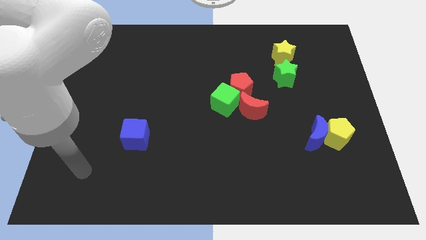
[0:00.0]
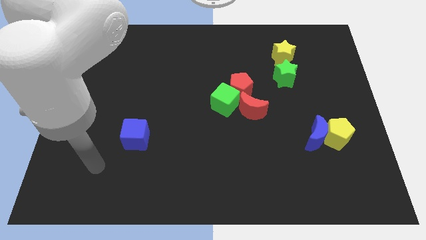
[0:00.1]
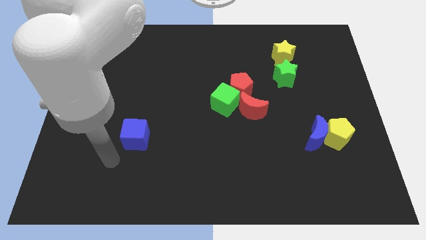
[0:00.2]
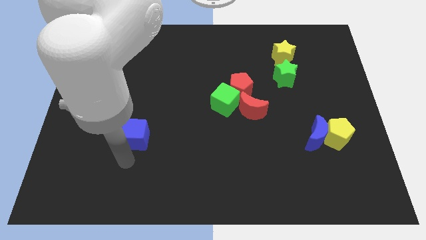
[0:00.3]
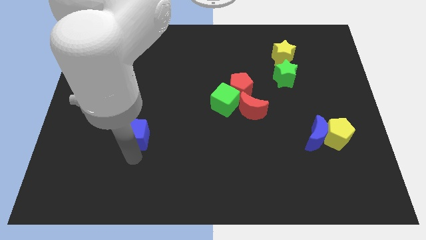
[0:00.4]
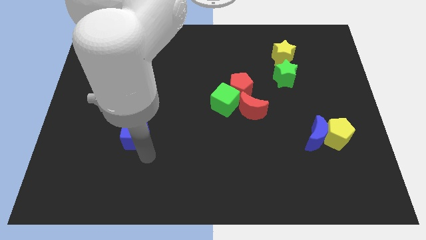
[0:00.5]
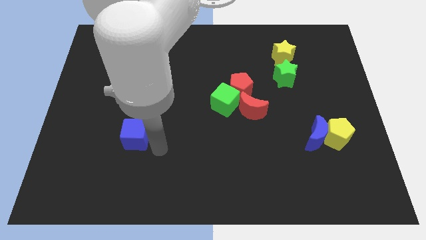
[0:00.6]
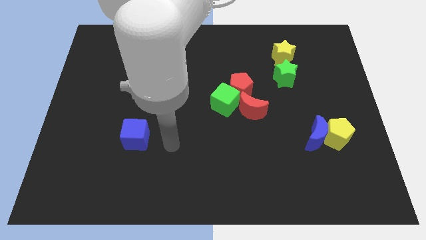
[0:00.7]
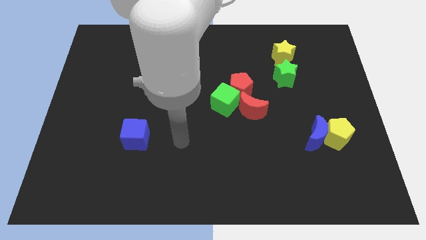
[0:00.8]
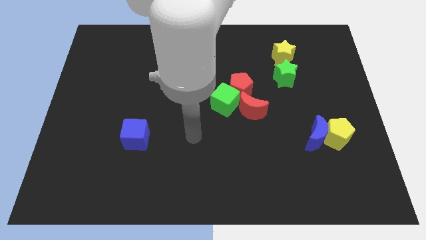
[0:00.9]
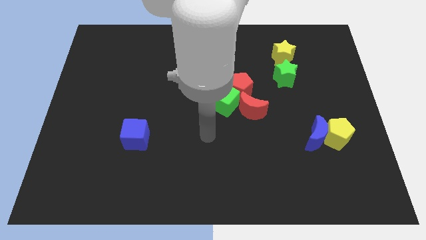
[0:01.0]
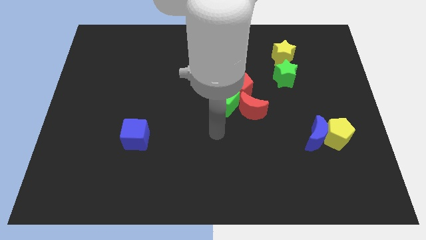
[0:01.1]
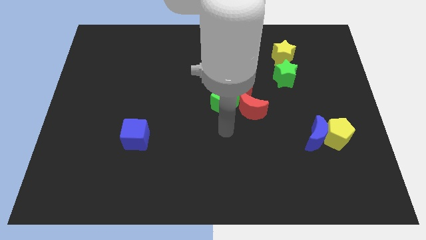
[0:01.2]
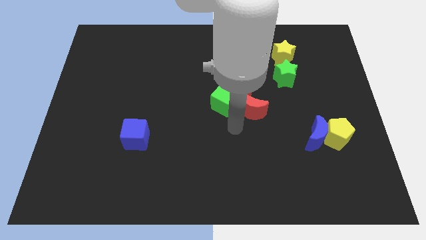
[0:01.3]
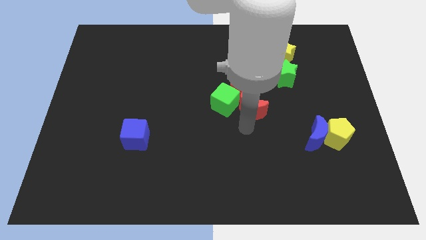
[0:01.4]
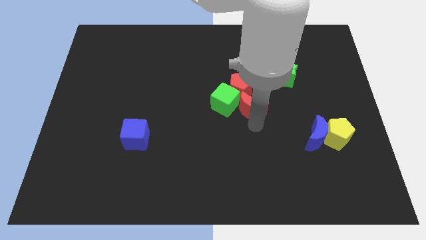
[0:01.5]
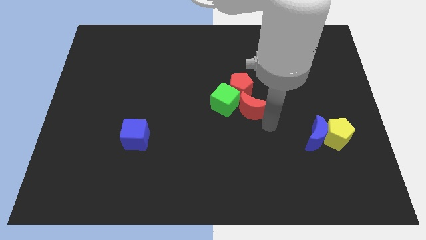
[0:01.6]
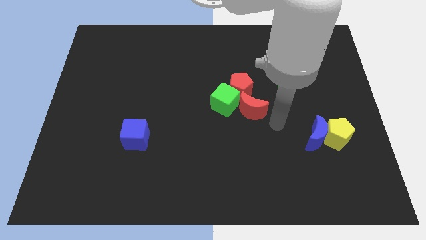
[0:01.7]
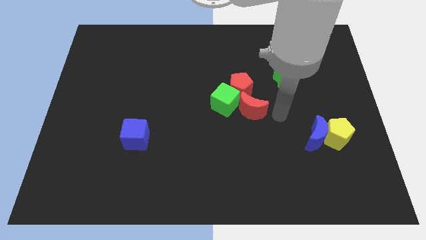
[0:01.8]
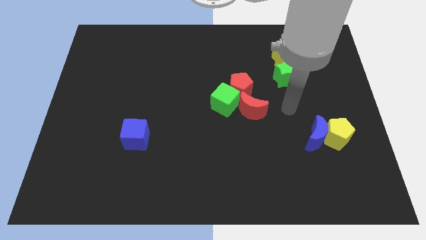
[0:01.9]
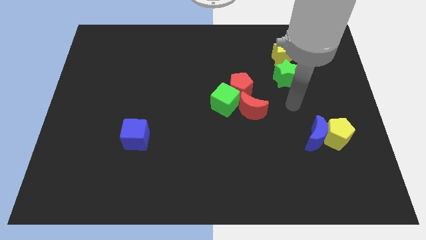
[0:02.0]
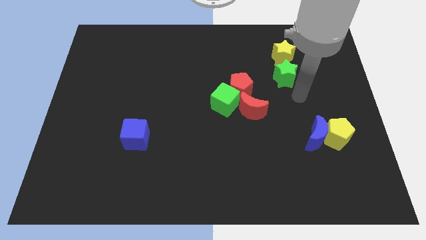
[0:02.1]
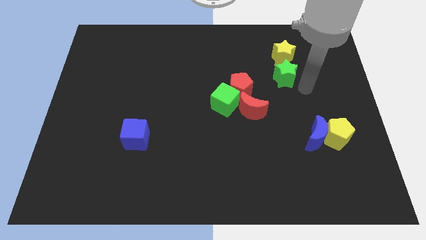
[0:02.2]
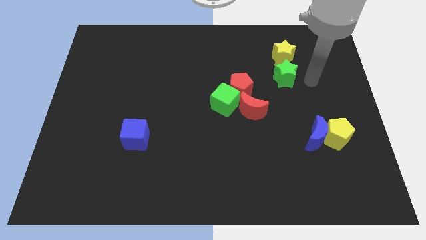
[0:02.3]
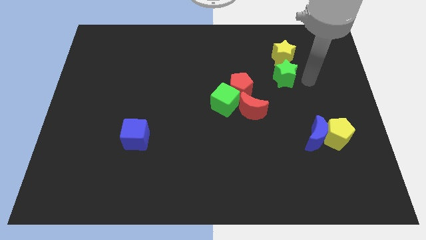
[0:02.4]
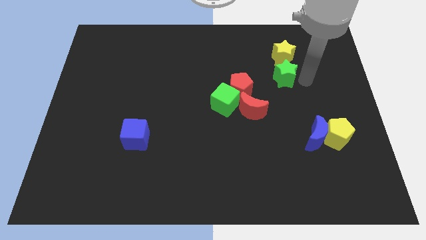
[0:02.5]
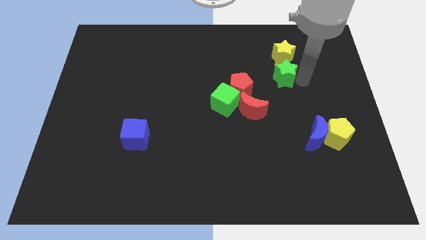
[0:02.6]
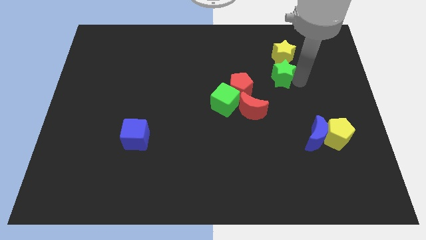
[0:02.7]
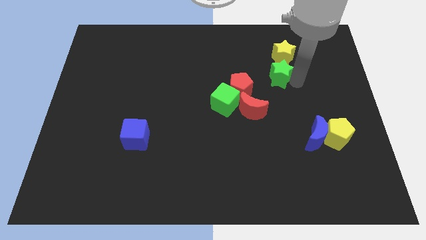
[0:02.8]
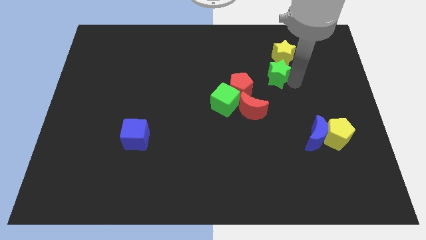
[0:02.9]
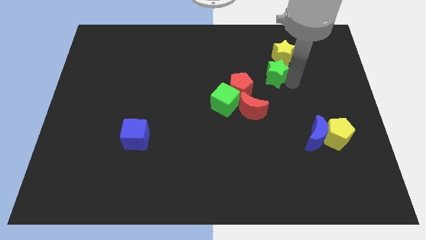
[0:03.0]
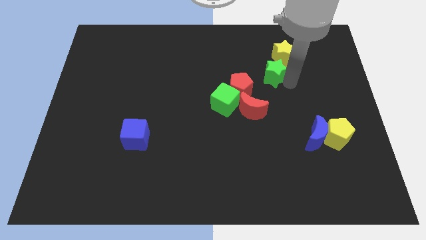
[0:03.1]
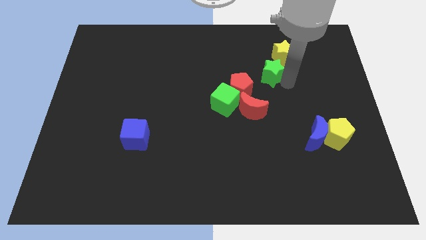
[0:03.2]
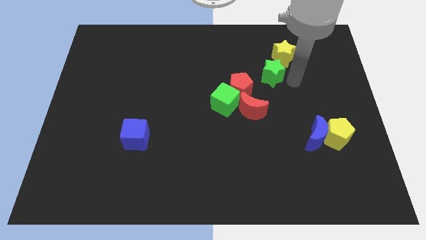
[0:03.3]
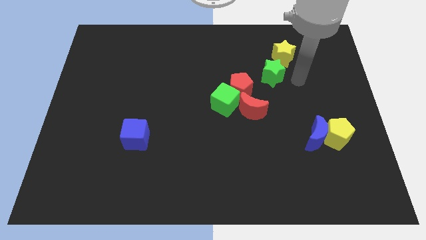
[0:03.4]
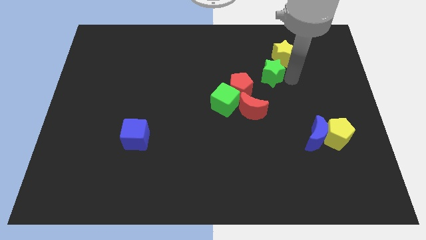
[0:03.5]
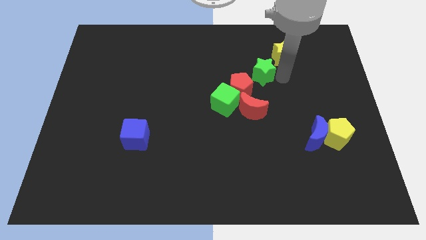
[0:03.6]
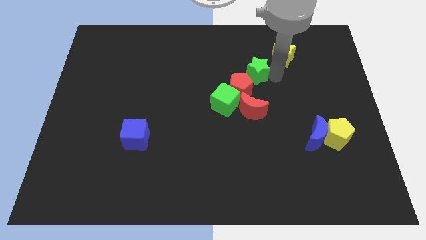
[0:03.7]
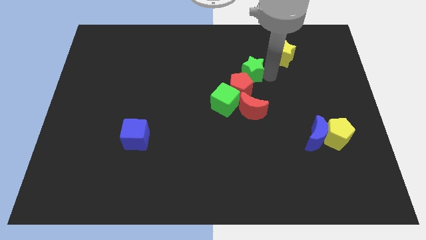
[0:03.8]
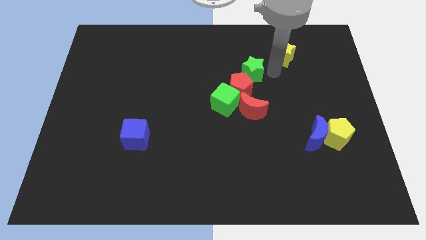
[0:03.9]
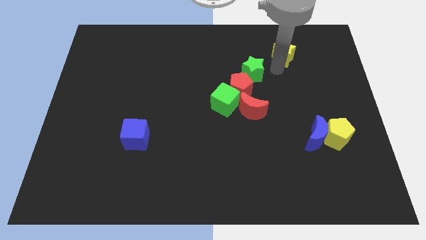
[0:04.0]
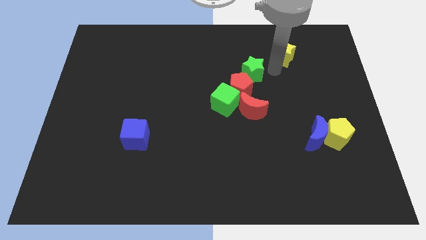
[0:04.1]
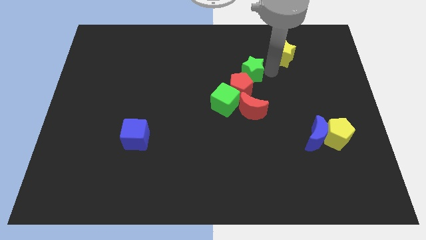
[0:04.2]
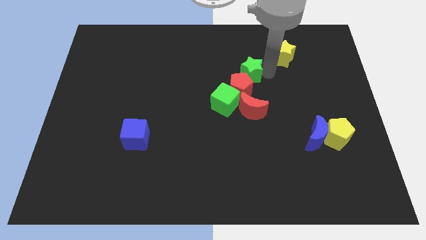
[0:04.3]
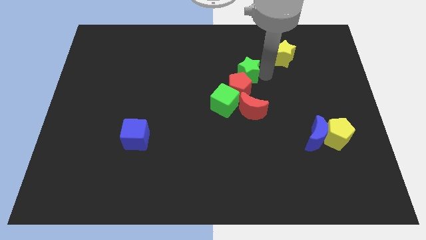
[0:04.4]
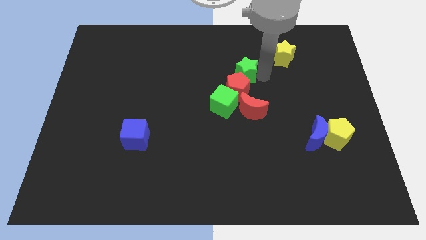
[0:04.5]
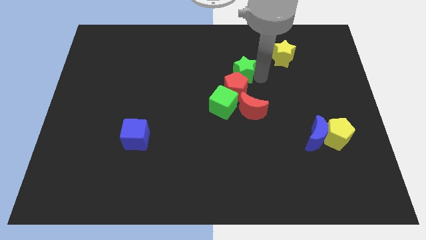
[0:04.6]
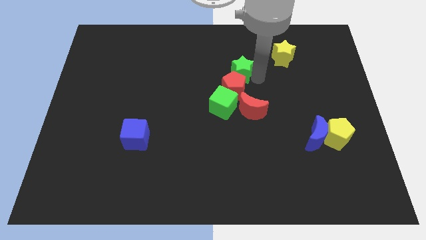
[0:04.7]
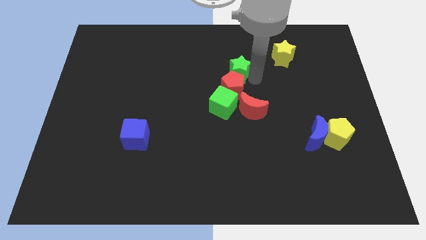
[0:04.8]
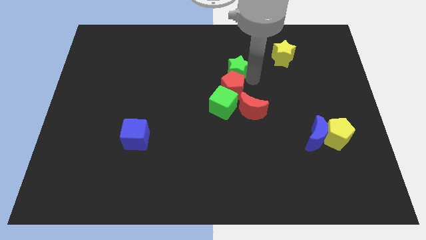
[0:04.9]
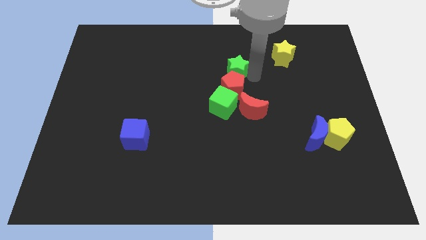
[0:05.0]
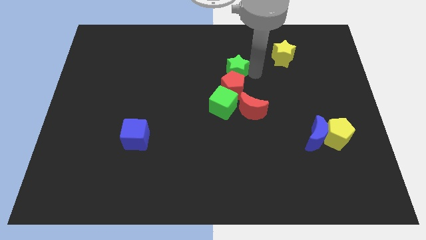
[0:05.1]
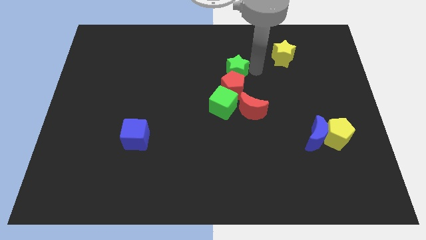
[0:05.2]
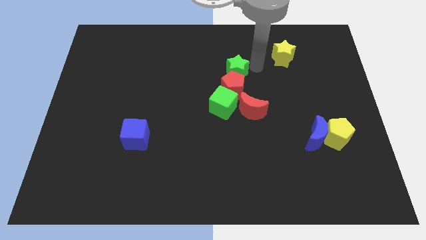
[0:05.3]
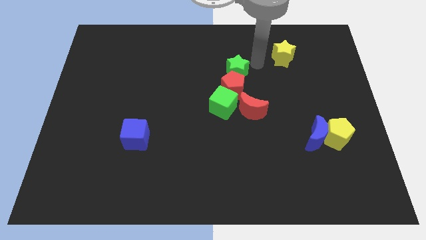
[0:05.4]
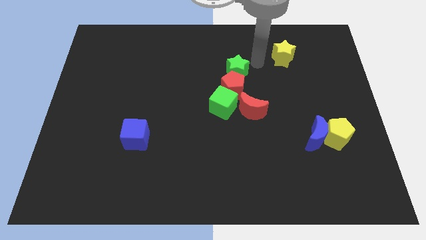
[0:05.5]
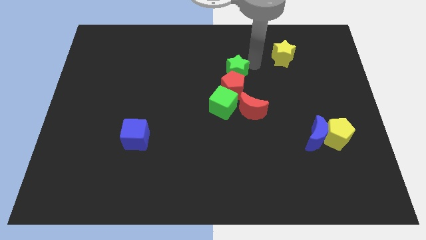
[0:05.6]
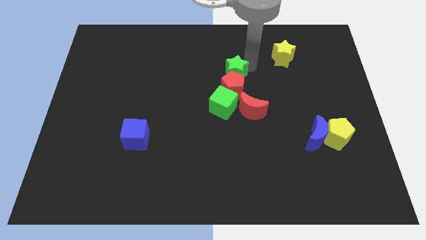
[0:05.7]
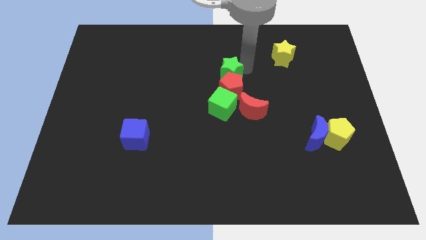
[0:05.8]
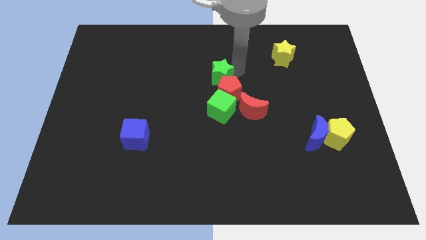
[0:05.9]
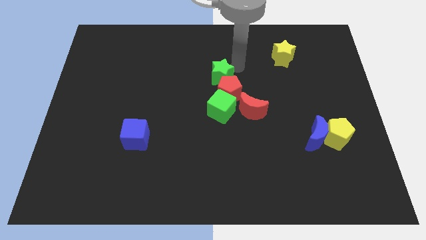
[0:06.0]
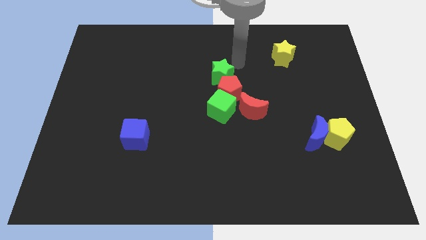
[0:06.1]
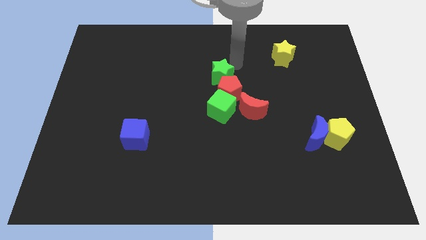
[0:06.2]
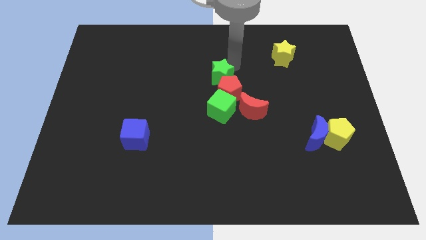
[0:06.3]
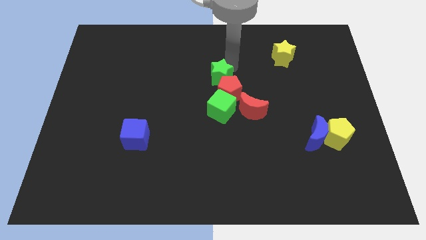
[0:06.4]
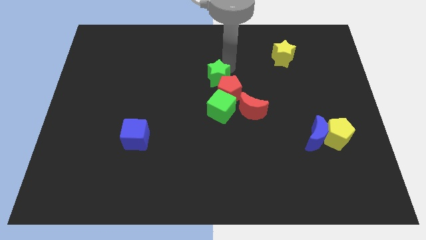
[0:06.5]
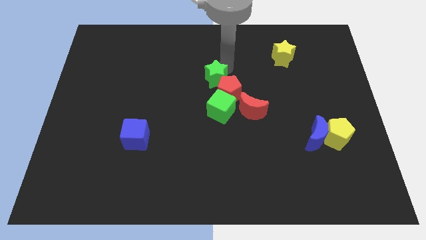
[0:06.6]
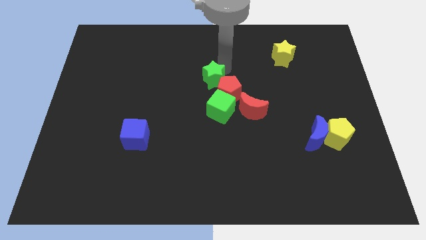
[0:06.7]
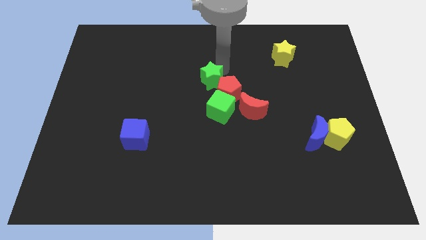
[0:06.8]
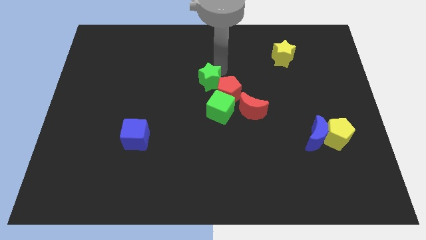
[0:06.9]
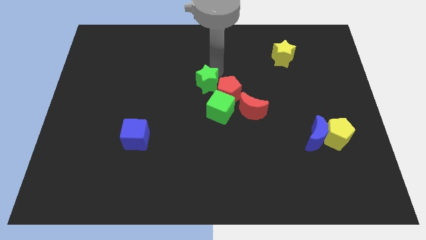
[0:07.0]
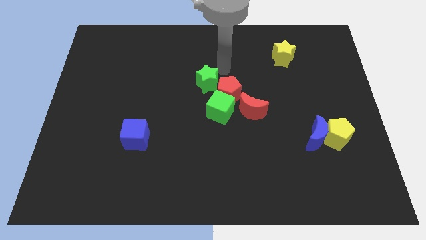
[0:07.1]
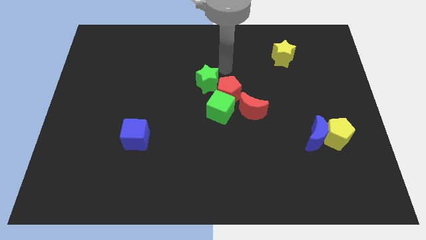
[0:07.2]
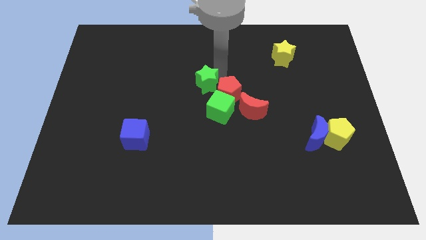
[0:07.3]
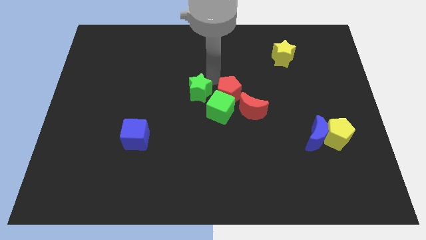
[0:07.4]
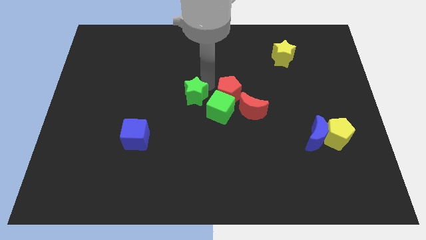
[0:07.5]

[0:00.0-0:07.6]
slide the green star to the left of the green cube
